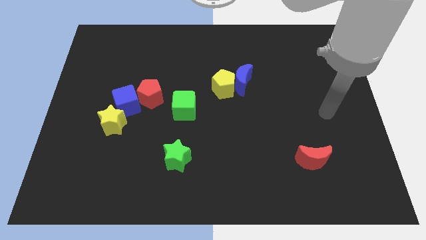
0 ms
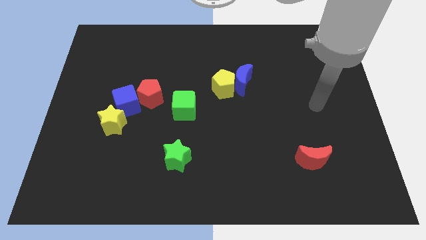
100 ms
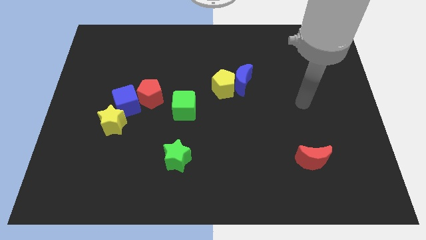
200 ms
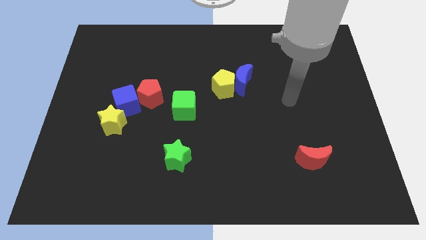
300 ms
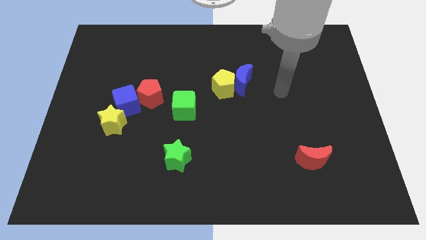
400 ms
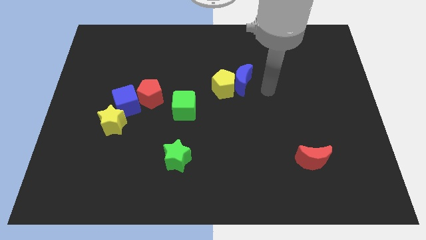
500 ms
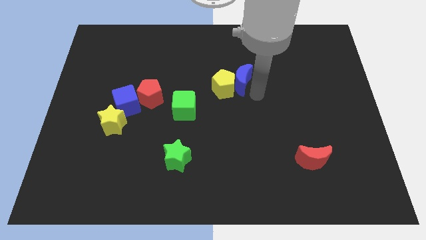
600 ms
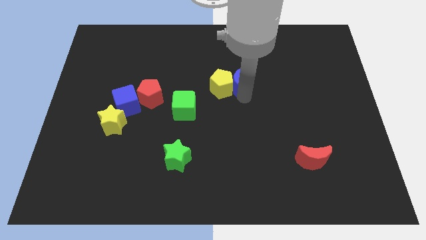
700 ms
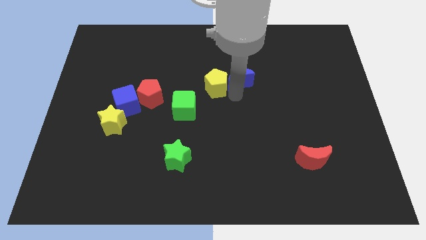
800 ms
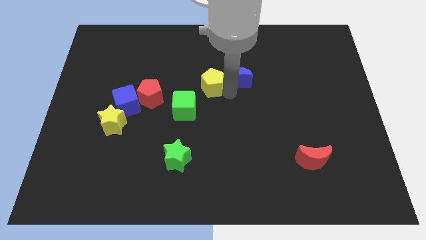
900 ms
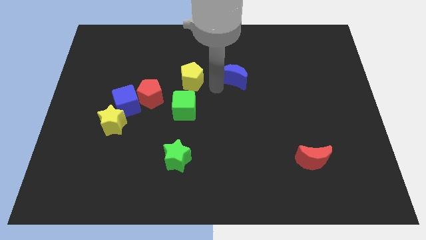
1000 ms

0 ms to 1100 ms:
pull the blue moon apart from the yellow pentagon

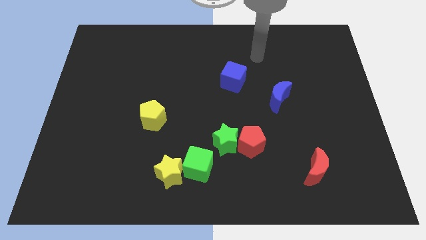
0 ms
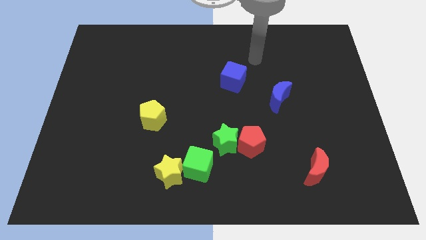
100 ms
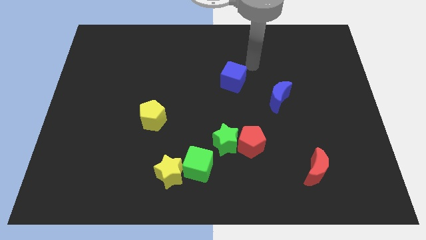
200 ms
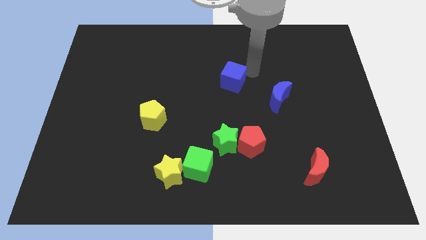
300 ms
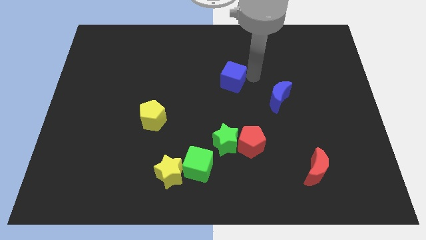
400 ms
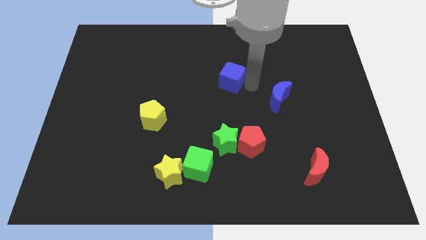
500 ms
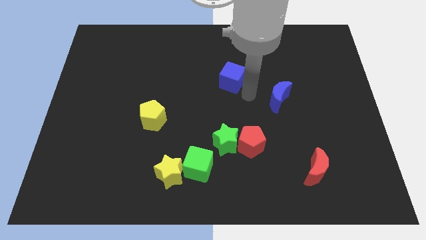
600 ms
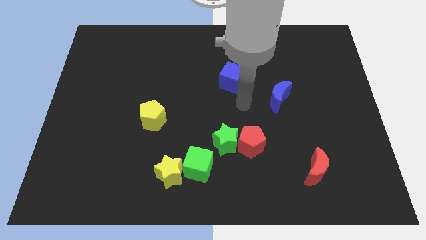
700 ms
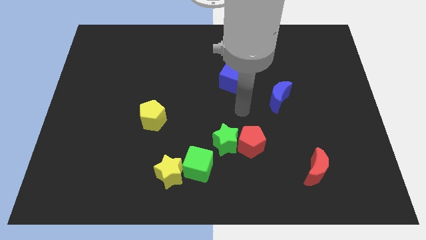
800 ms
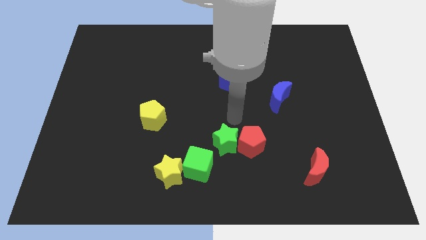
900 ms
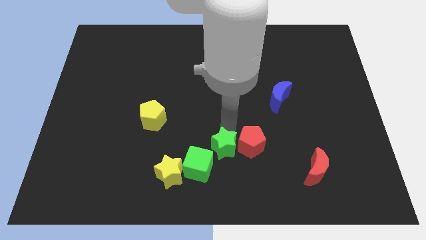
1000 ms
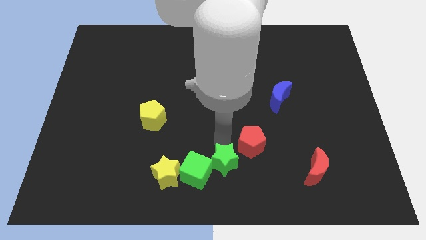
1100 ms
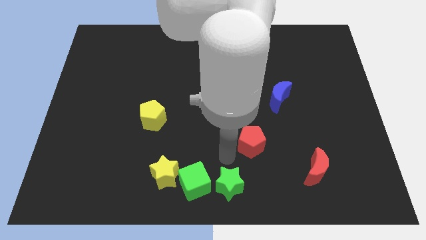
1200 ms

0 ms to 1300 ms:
pull the red pentagon apart from the green star

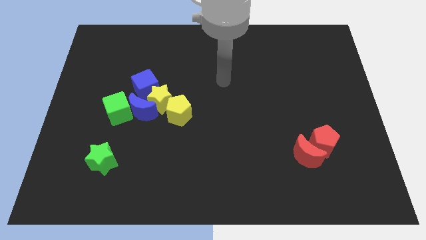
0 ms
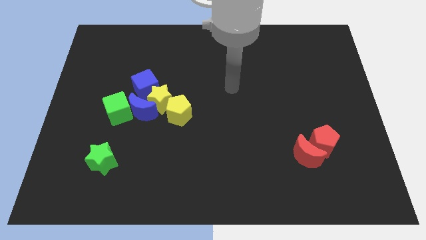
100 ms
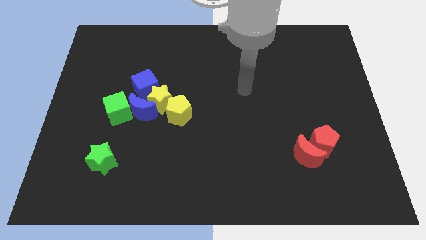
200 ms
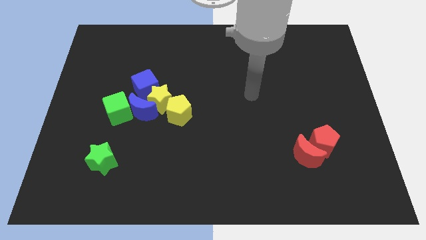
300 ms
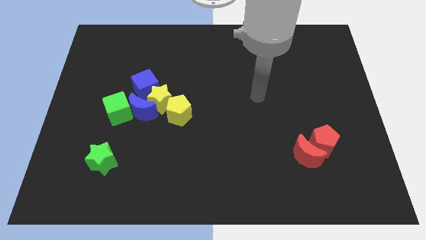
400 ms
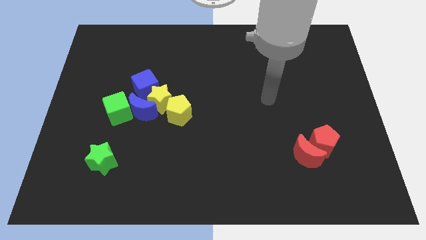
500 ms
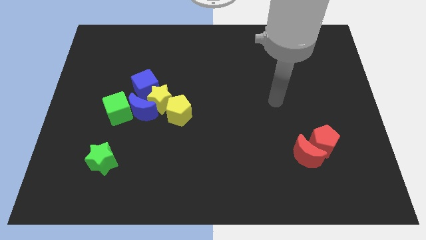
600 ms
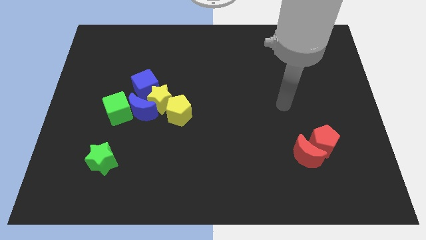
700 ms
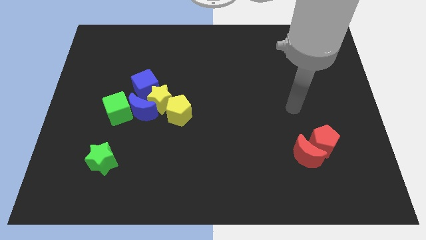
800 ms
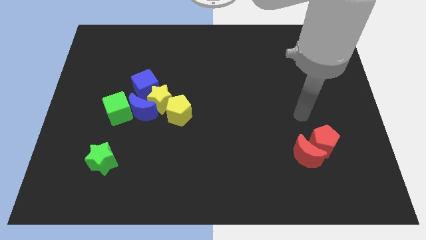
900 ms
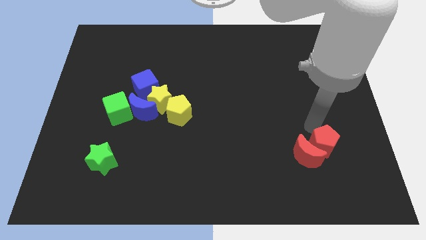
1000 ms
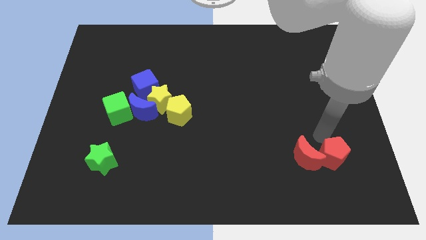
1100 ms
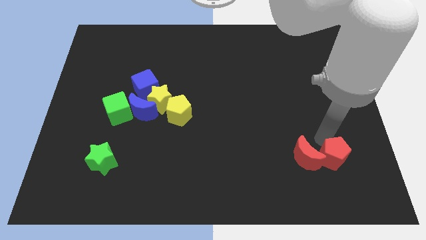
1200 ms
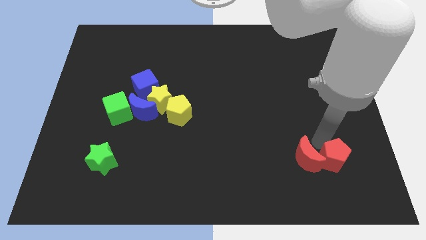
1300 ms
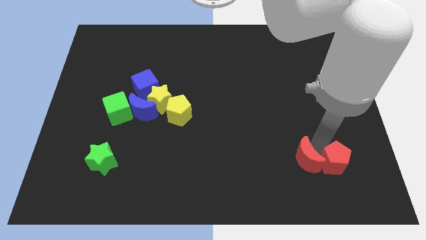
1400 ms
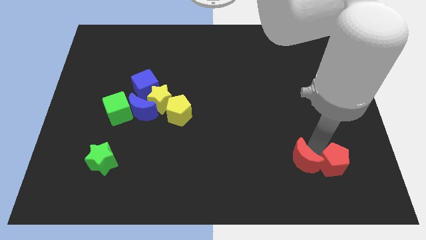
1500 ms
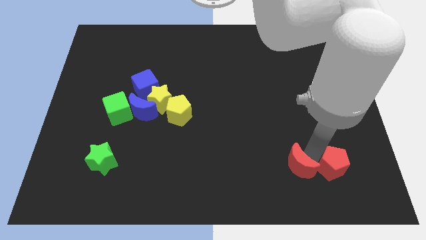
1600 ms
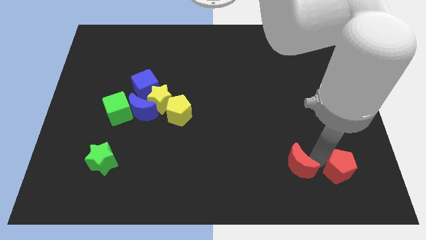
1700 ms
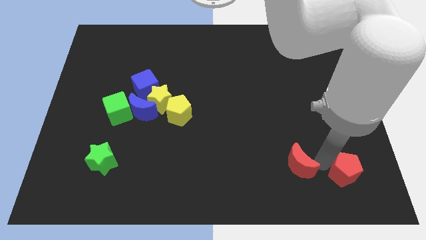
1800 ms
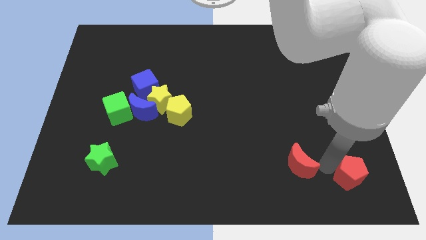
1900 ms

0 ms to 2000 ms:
separate the red moon from the red pentagon

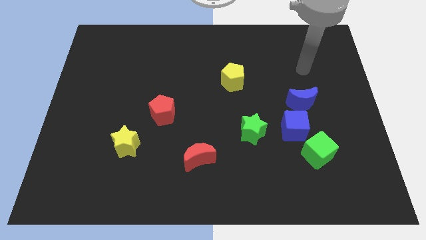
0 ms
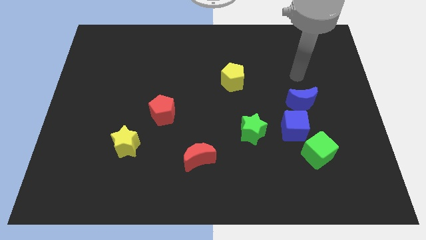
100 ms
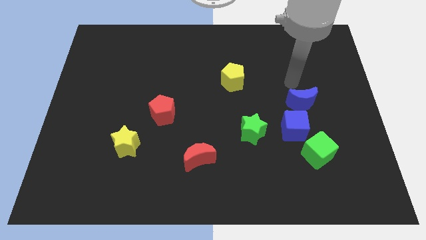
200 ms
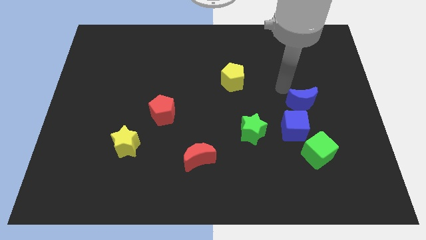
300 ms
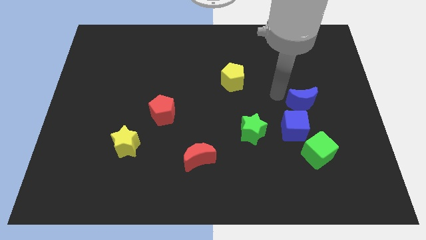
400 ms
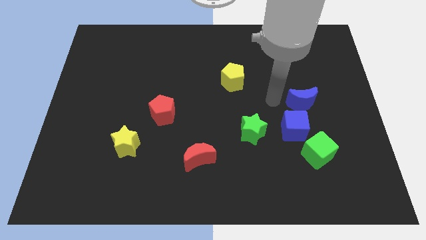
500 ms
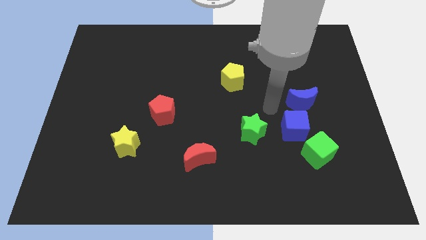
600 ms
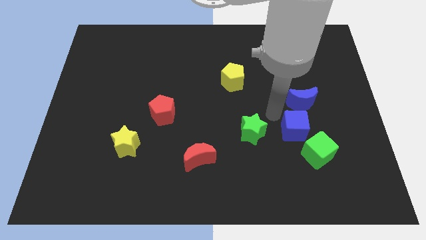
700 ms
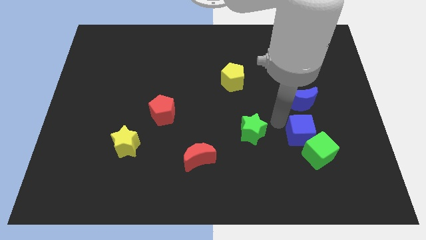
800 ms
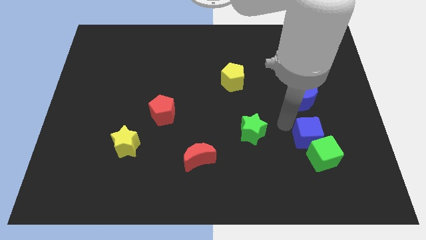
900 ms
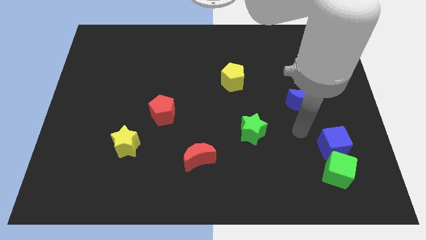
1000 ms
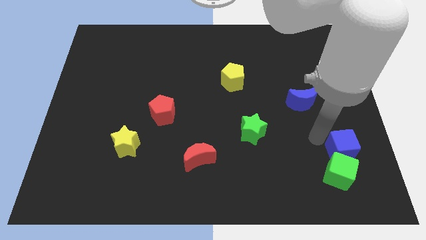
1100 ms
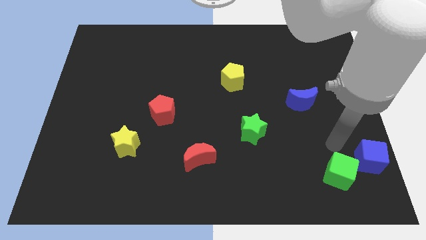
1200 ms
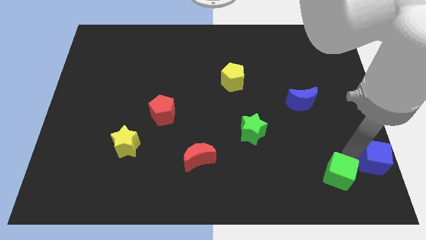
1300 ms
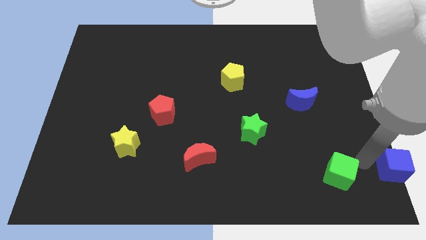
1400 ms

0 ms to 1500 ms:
pull the green cube apart from the blue cube

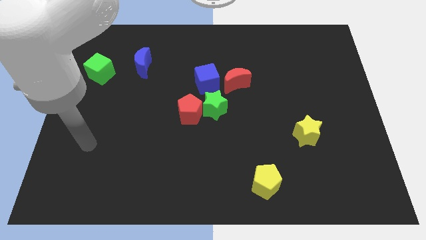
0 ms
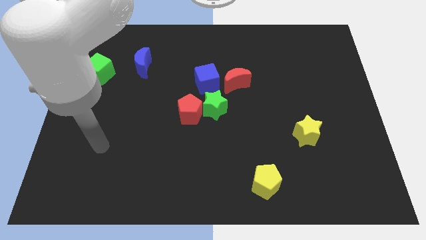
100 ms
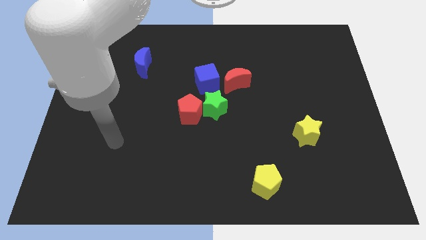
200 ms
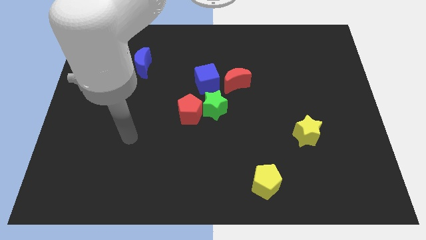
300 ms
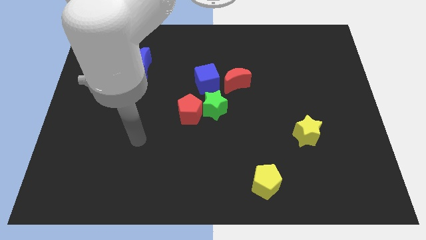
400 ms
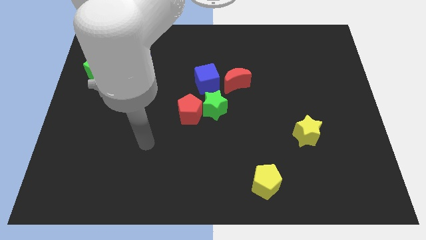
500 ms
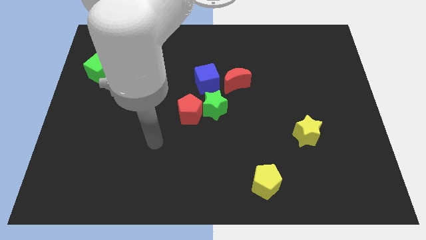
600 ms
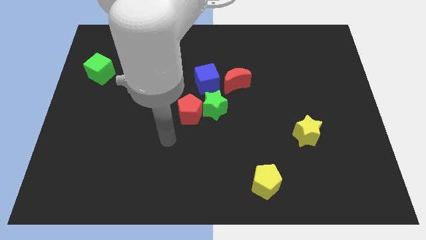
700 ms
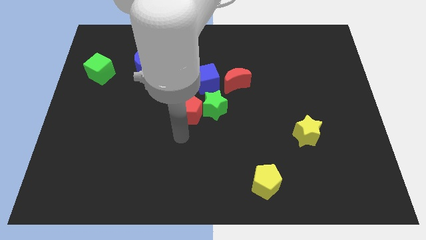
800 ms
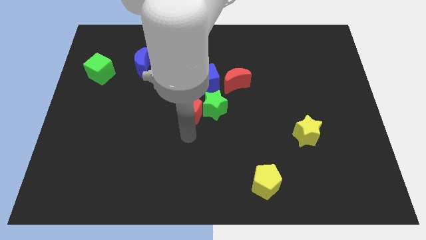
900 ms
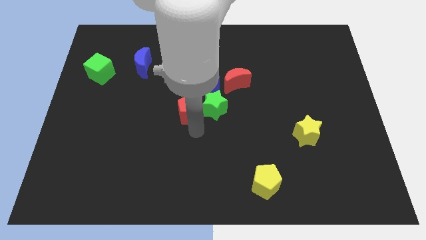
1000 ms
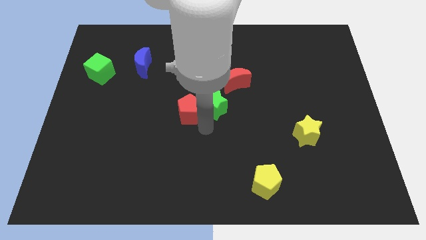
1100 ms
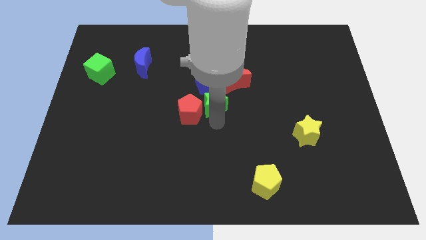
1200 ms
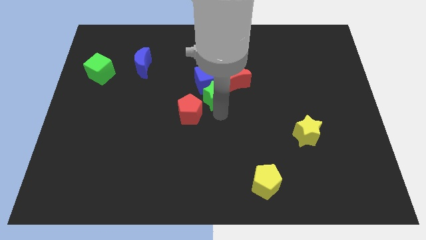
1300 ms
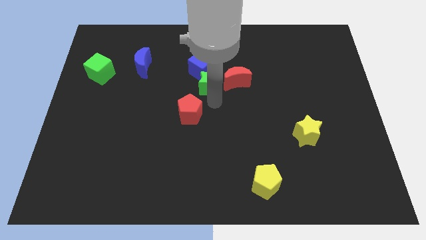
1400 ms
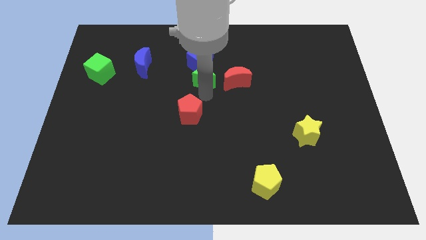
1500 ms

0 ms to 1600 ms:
move the red pentagon away from the green star

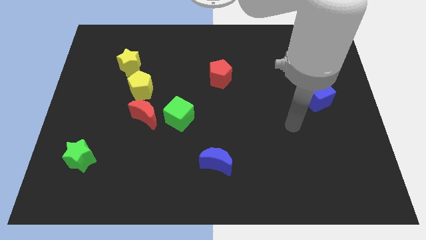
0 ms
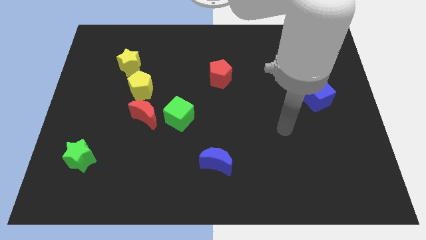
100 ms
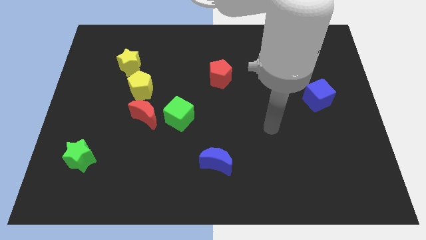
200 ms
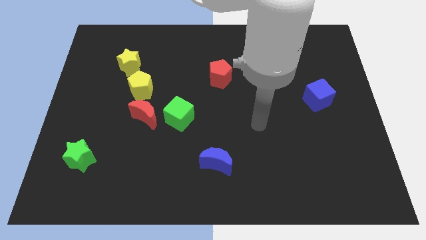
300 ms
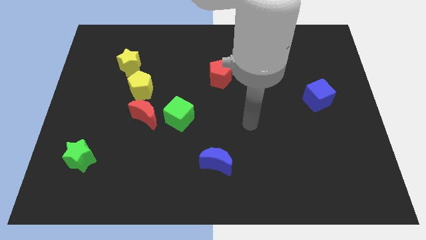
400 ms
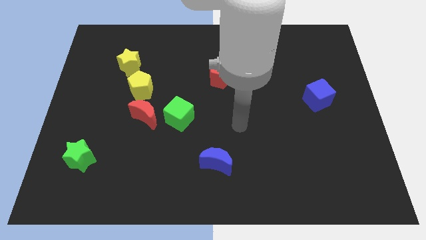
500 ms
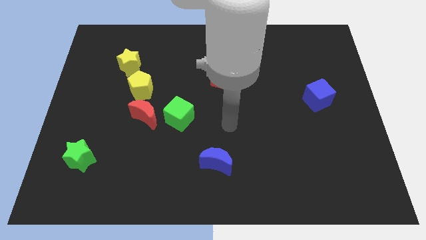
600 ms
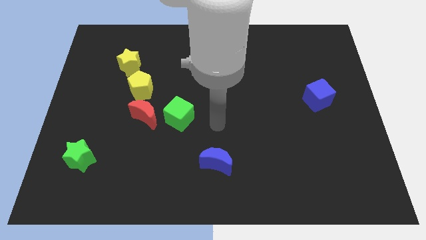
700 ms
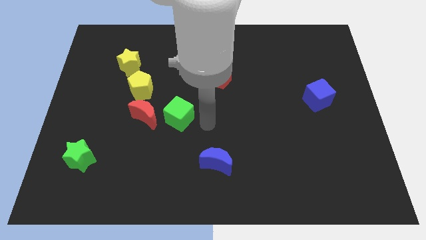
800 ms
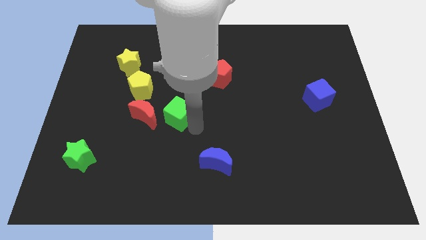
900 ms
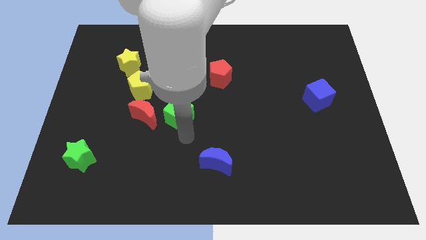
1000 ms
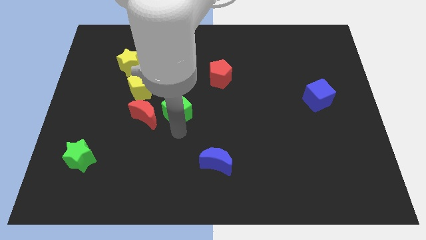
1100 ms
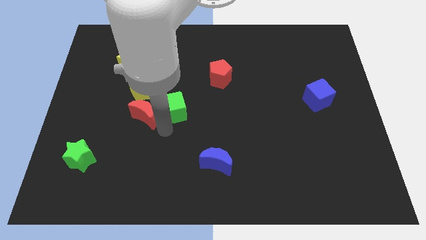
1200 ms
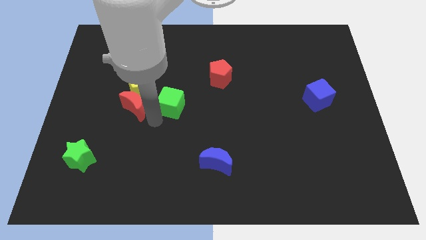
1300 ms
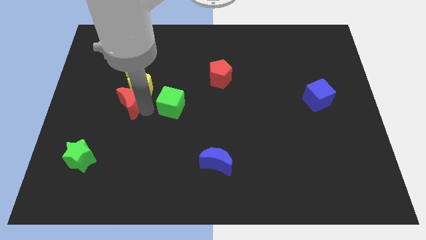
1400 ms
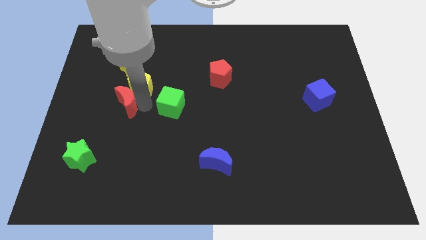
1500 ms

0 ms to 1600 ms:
separate the green cube from the red moon

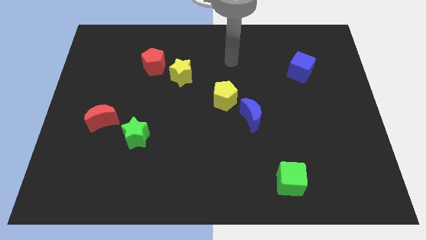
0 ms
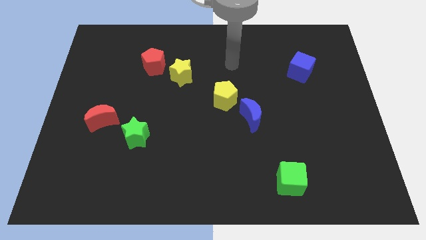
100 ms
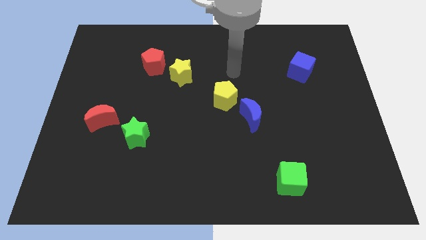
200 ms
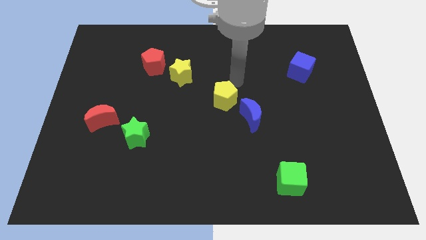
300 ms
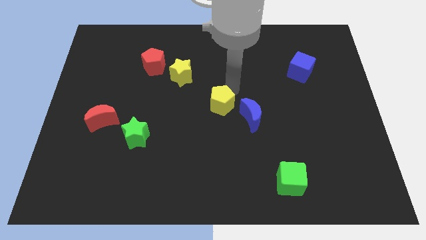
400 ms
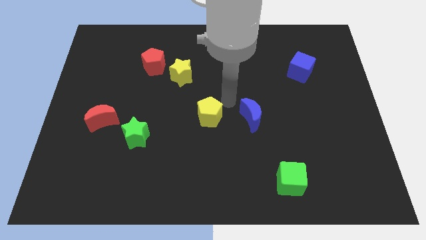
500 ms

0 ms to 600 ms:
separate the blue moon from the yellow pentagon
